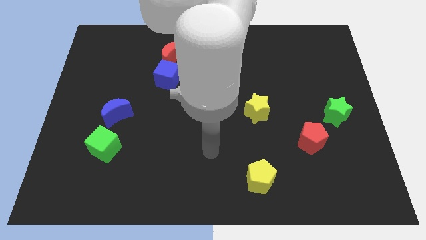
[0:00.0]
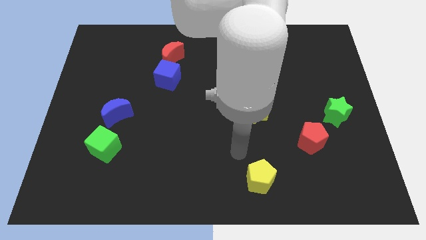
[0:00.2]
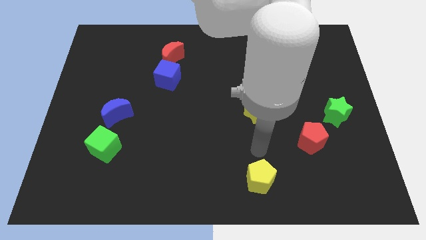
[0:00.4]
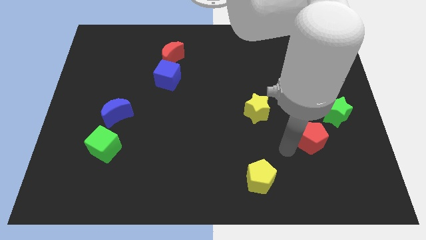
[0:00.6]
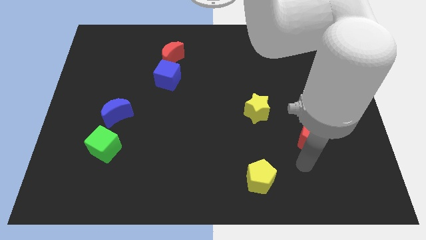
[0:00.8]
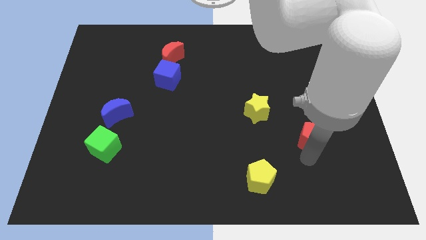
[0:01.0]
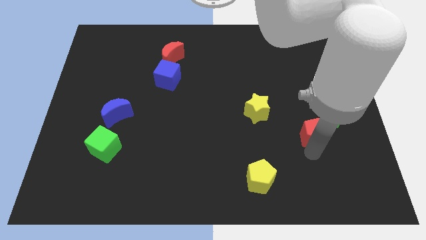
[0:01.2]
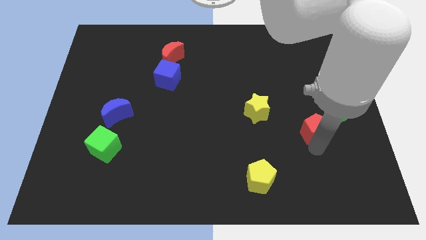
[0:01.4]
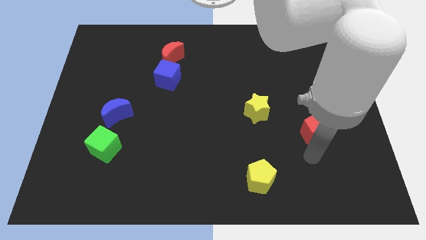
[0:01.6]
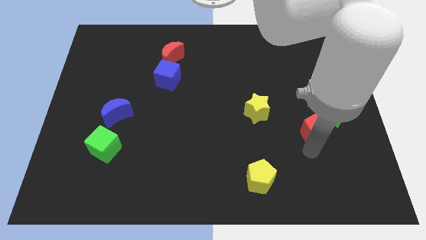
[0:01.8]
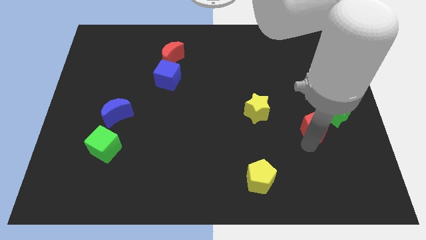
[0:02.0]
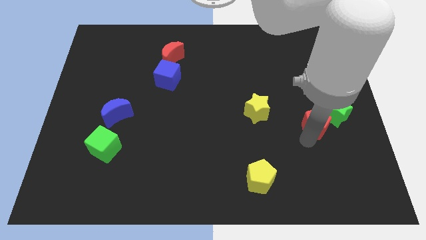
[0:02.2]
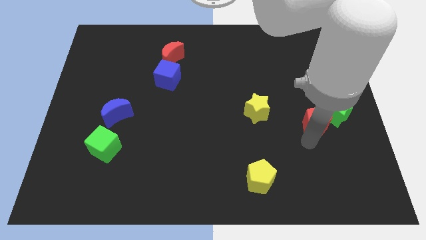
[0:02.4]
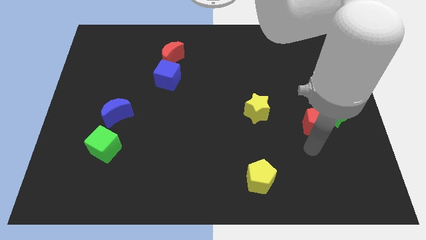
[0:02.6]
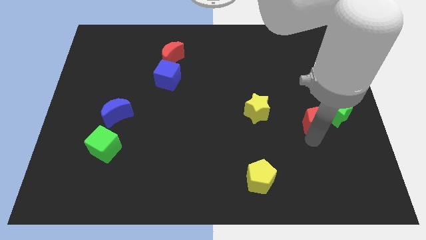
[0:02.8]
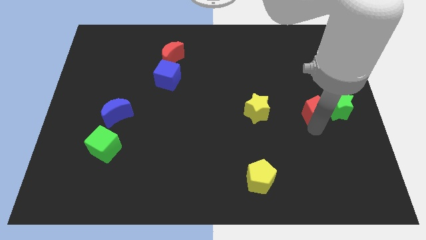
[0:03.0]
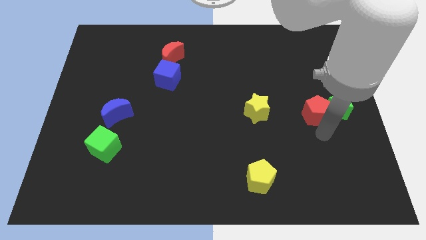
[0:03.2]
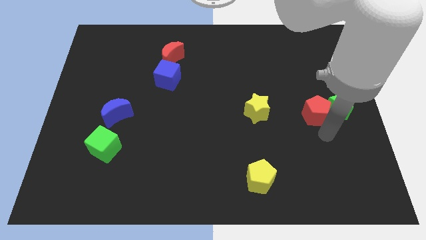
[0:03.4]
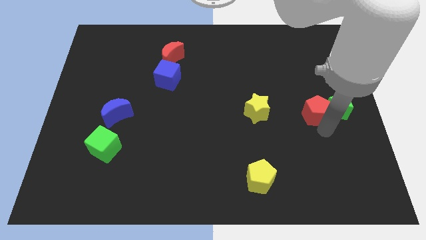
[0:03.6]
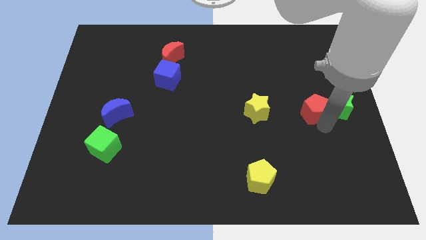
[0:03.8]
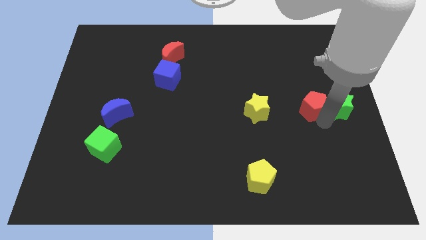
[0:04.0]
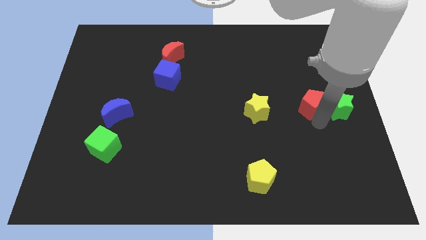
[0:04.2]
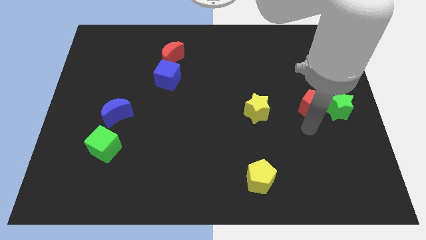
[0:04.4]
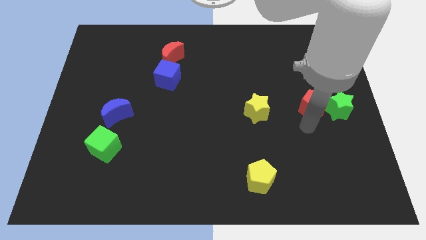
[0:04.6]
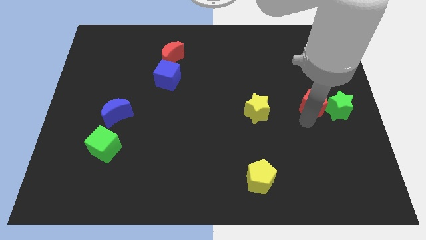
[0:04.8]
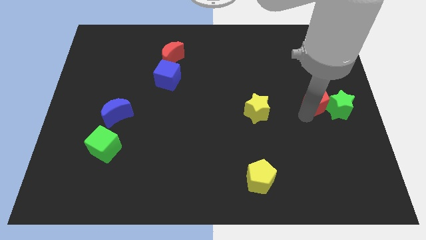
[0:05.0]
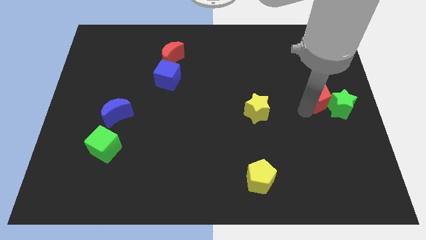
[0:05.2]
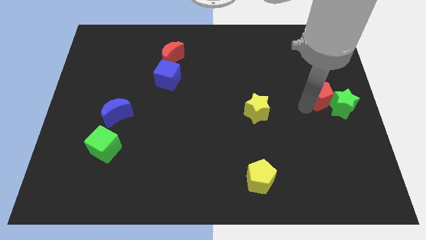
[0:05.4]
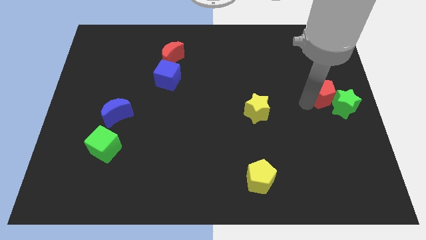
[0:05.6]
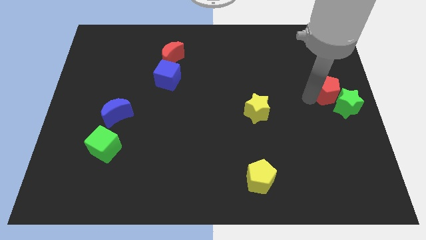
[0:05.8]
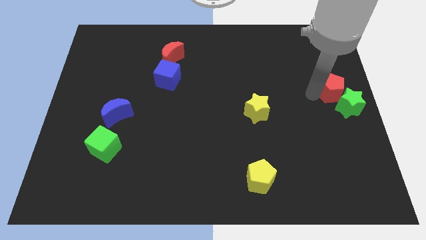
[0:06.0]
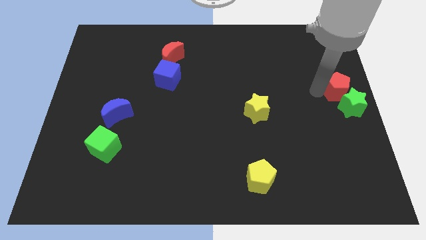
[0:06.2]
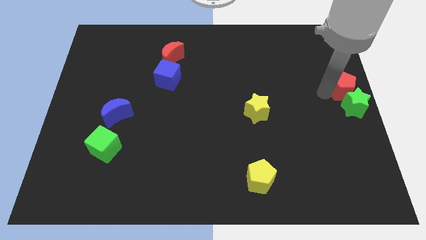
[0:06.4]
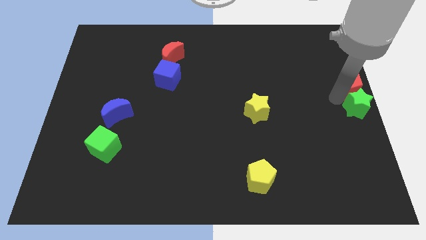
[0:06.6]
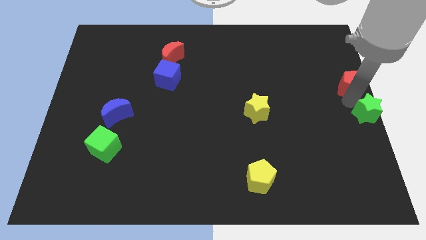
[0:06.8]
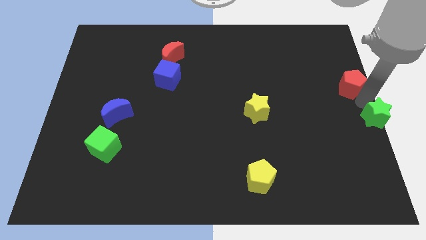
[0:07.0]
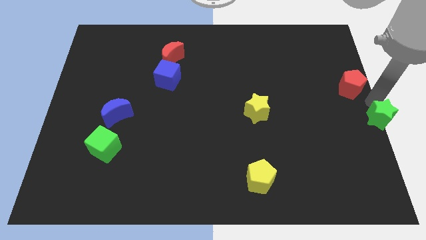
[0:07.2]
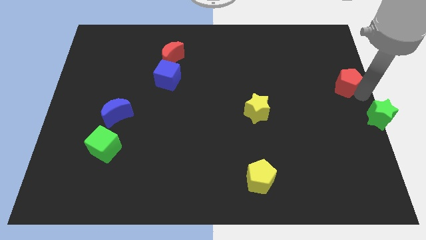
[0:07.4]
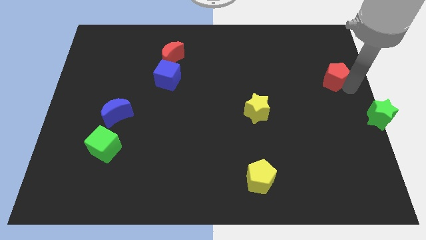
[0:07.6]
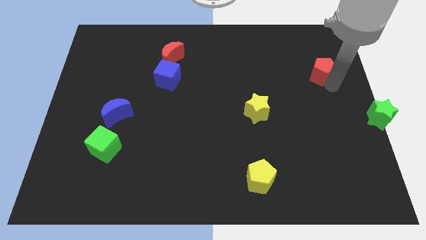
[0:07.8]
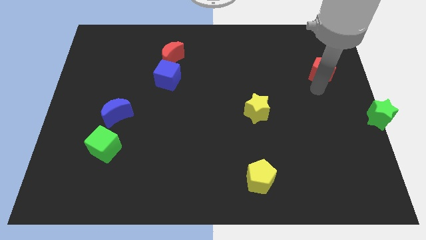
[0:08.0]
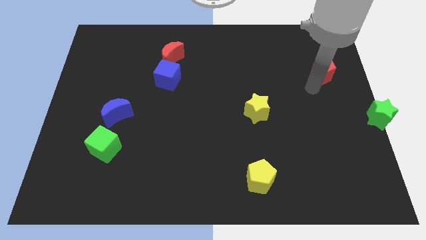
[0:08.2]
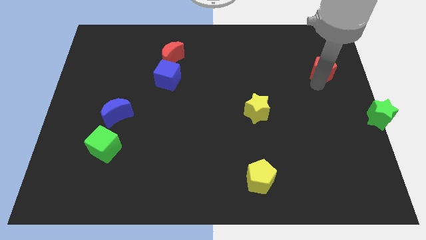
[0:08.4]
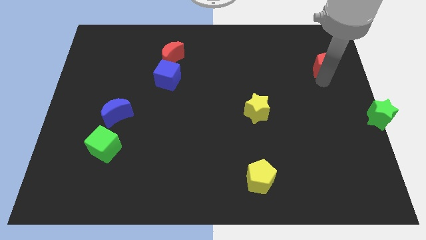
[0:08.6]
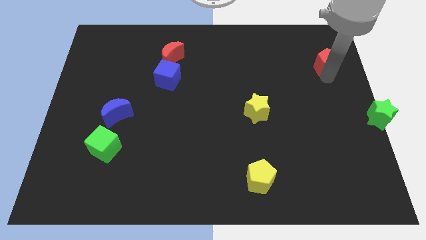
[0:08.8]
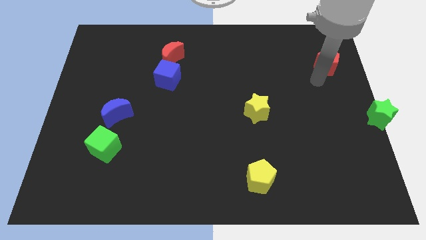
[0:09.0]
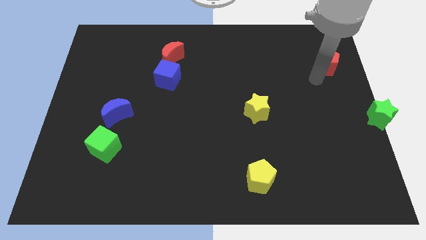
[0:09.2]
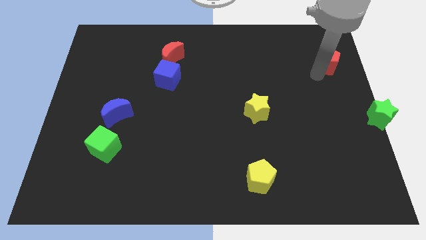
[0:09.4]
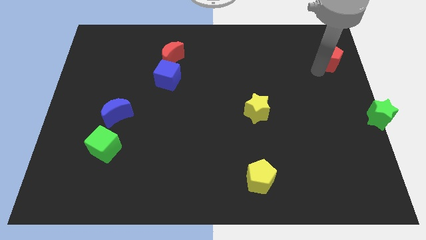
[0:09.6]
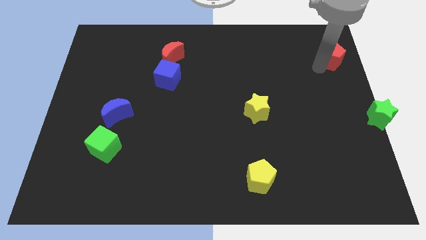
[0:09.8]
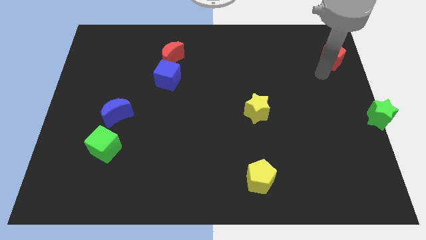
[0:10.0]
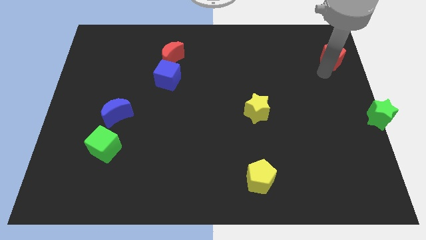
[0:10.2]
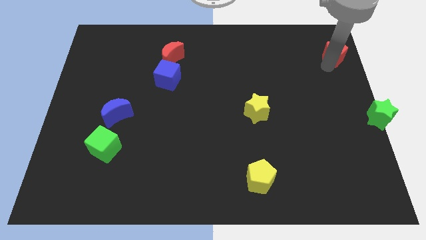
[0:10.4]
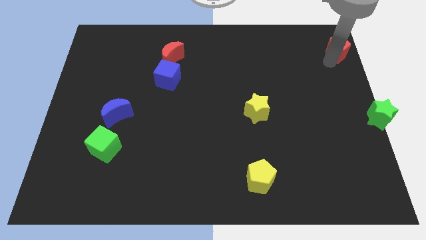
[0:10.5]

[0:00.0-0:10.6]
slide the red pentagon to the top right
